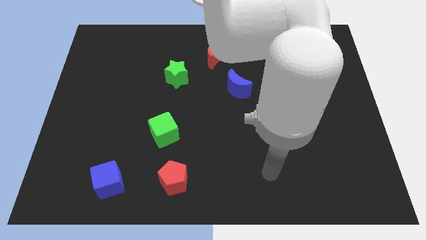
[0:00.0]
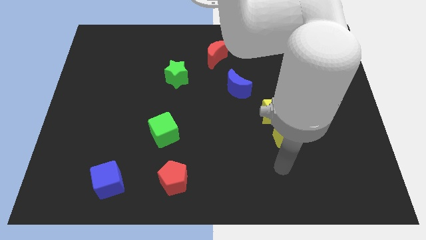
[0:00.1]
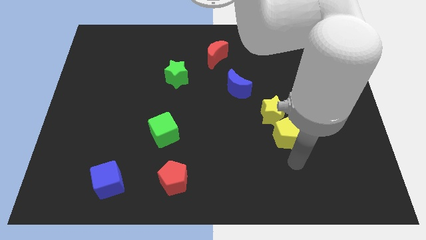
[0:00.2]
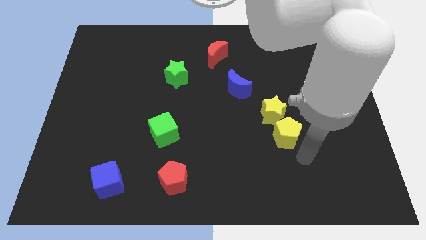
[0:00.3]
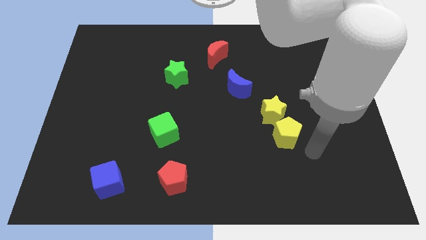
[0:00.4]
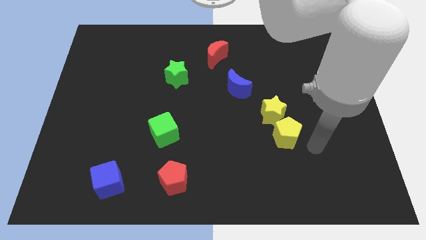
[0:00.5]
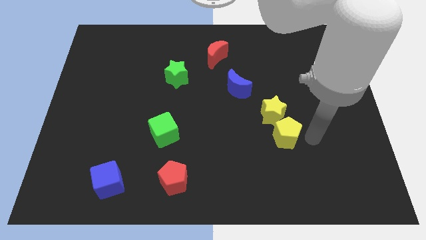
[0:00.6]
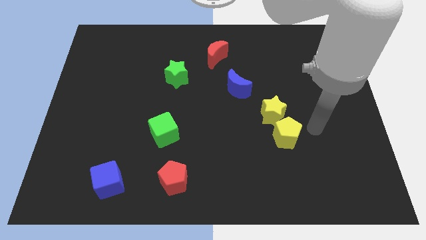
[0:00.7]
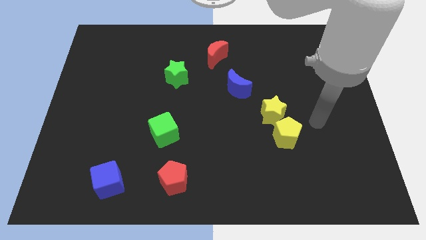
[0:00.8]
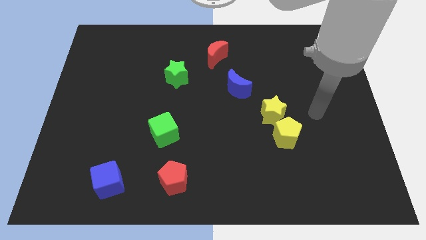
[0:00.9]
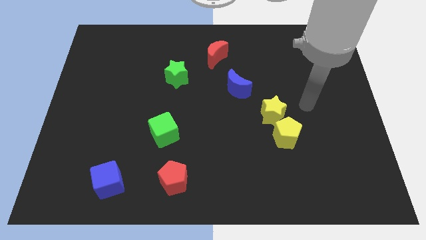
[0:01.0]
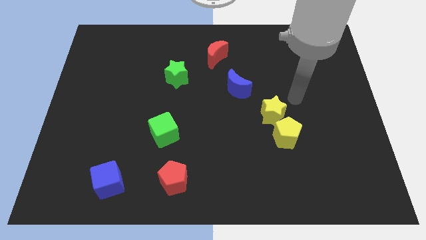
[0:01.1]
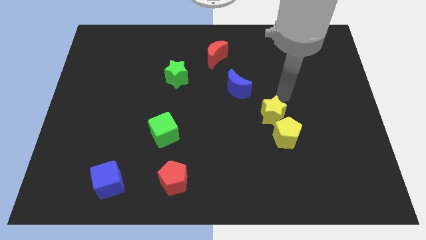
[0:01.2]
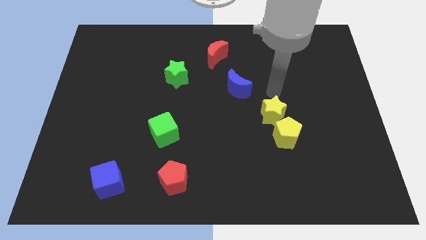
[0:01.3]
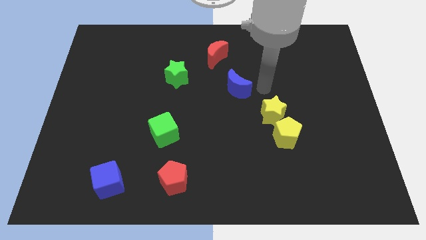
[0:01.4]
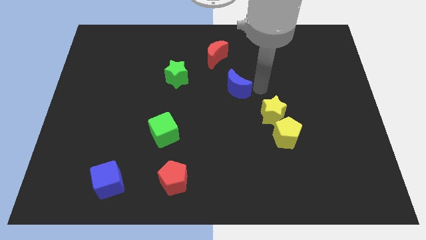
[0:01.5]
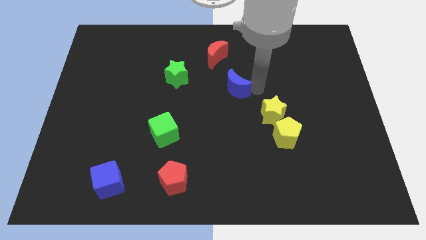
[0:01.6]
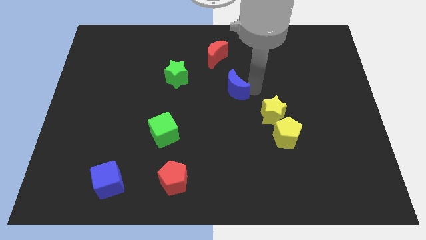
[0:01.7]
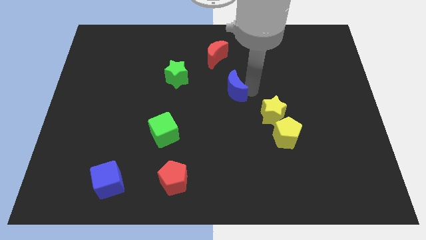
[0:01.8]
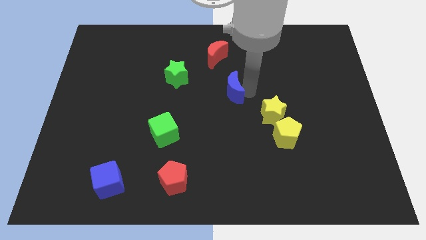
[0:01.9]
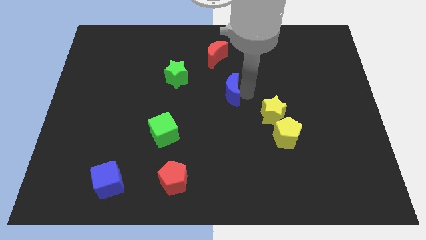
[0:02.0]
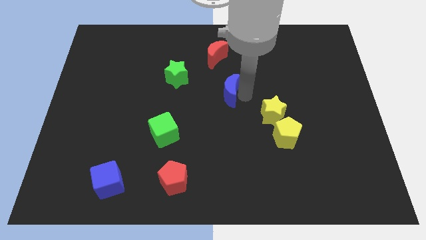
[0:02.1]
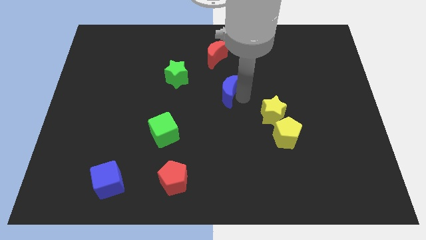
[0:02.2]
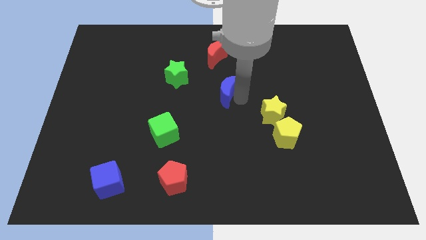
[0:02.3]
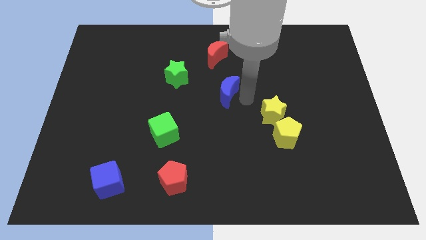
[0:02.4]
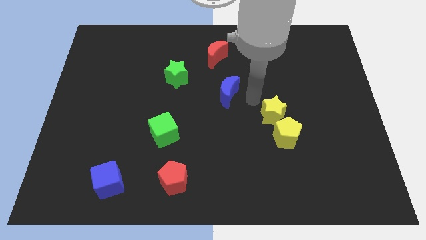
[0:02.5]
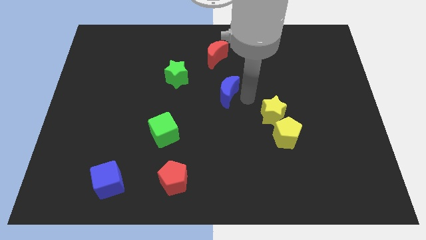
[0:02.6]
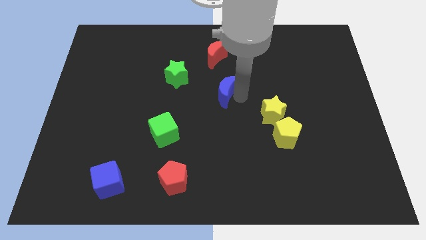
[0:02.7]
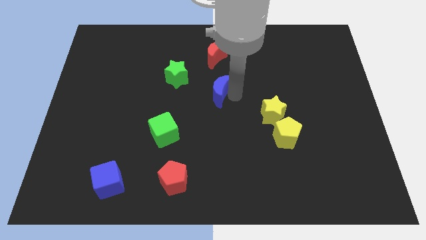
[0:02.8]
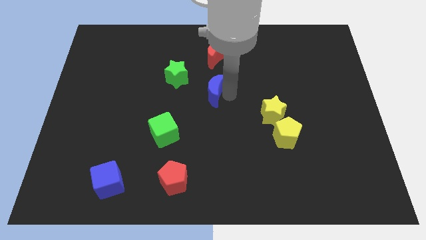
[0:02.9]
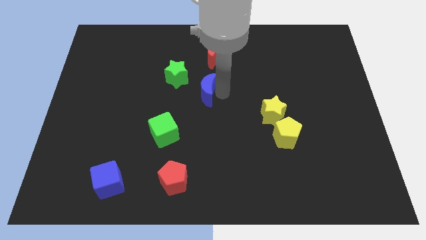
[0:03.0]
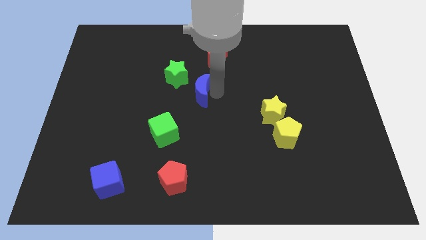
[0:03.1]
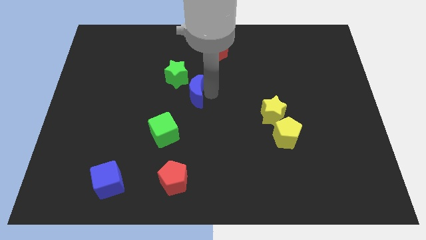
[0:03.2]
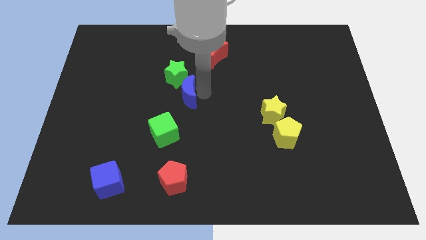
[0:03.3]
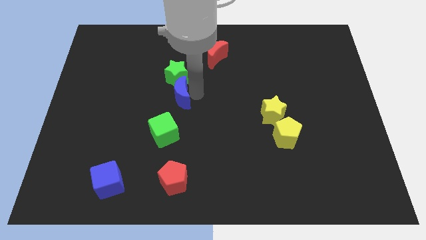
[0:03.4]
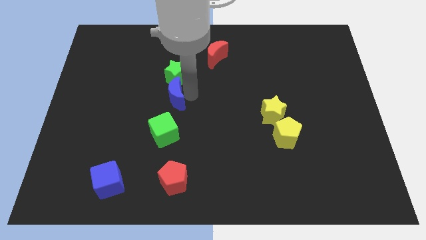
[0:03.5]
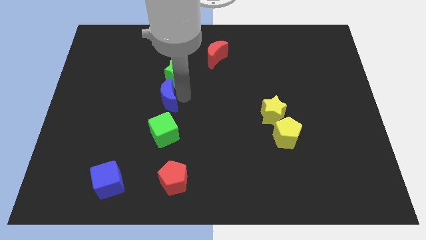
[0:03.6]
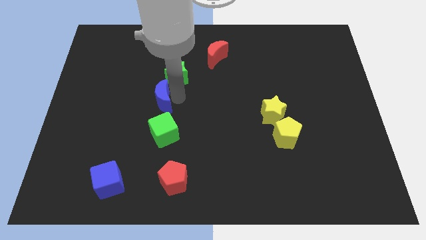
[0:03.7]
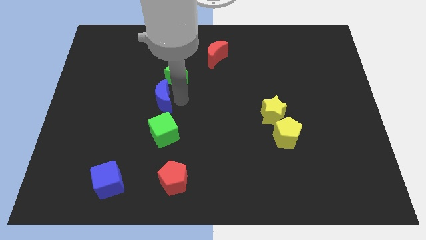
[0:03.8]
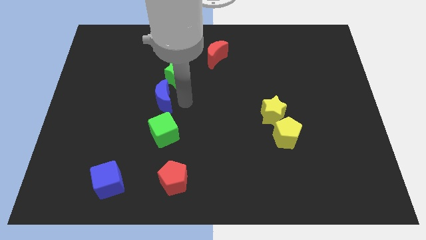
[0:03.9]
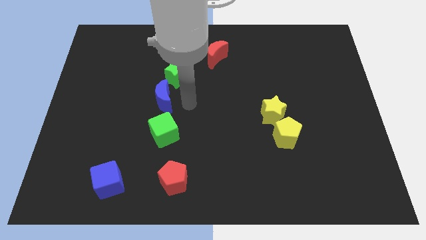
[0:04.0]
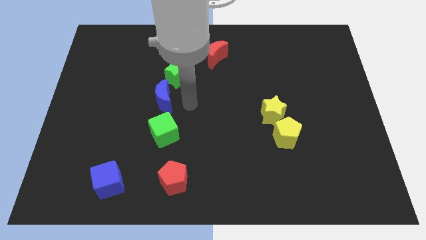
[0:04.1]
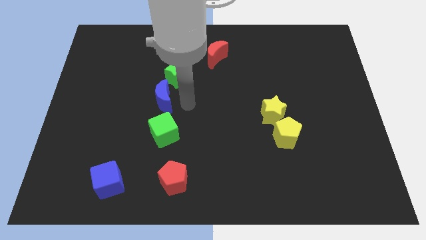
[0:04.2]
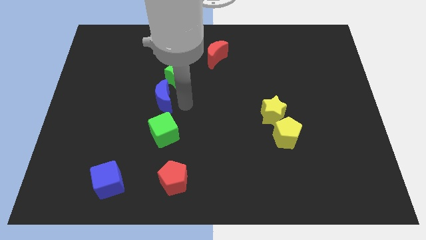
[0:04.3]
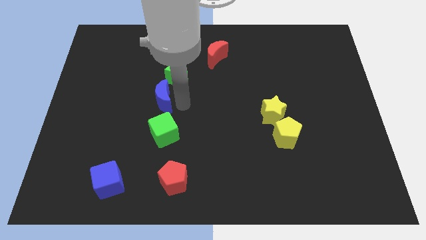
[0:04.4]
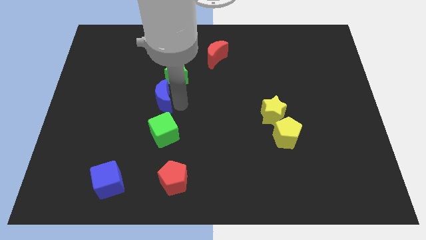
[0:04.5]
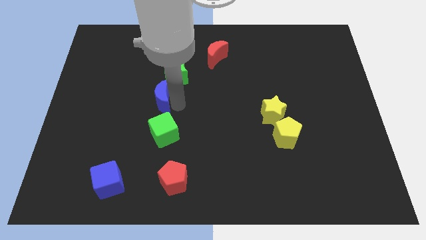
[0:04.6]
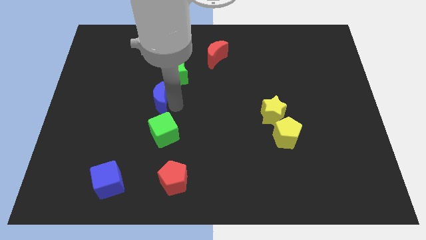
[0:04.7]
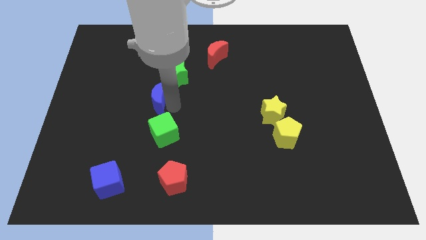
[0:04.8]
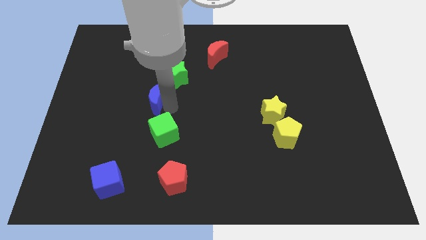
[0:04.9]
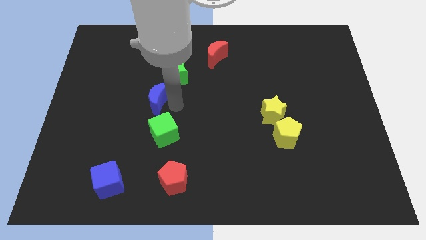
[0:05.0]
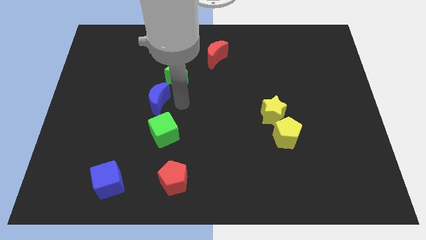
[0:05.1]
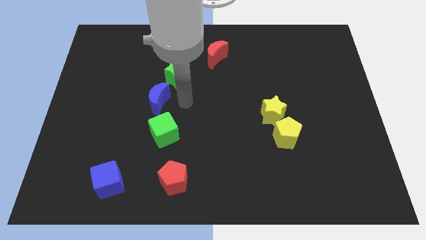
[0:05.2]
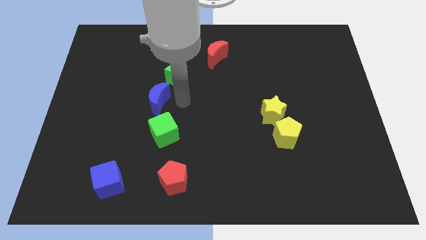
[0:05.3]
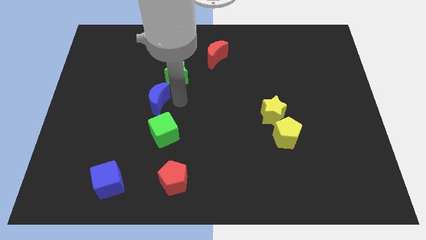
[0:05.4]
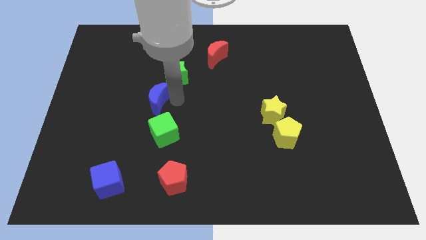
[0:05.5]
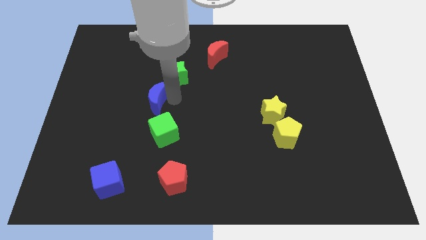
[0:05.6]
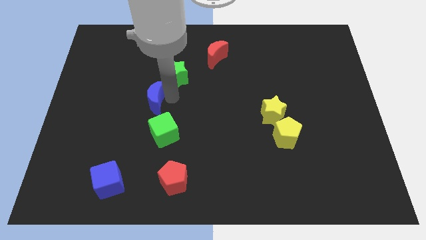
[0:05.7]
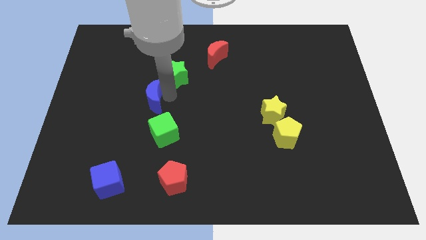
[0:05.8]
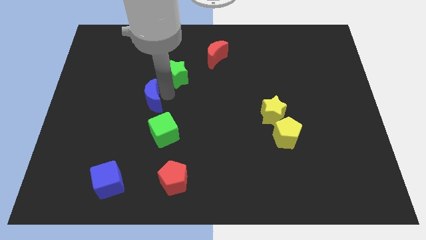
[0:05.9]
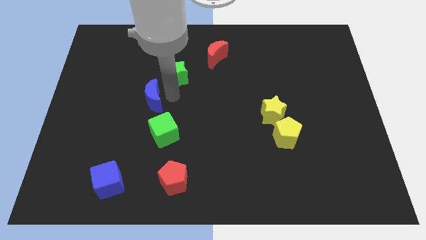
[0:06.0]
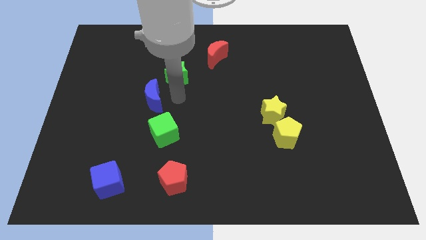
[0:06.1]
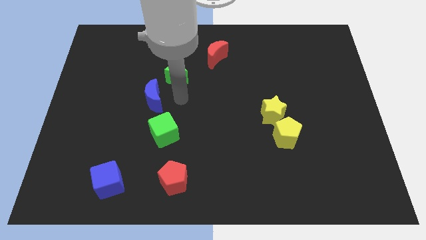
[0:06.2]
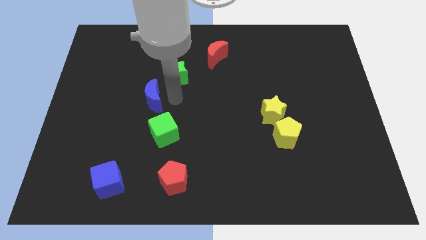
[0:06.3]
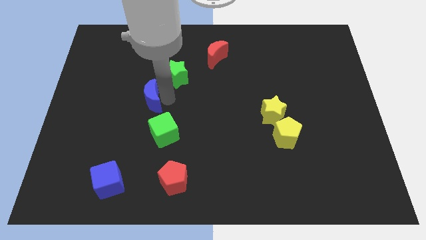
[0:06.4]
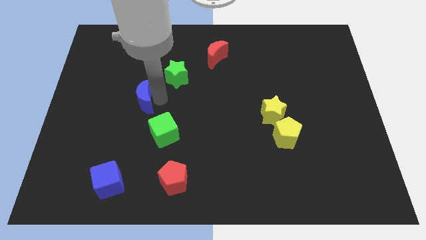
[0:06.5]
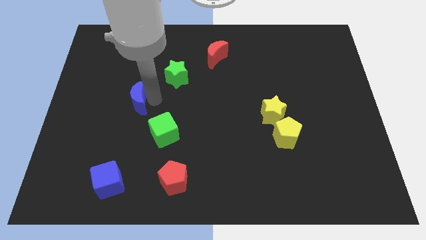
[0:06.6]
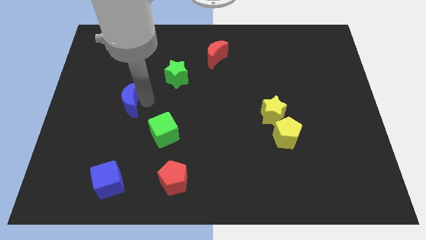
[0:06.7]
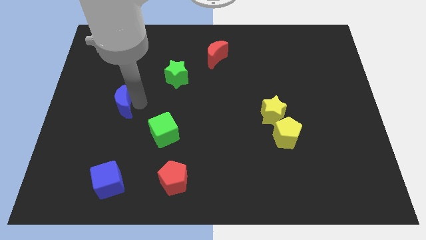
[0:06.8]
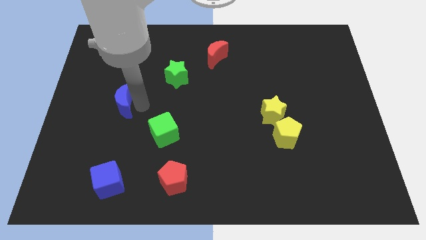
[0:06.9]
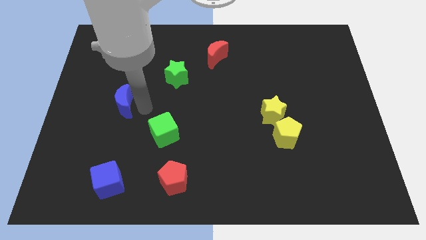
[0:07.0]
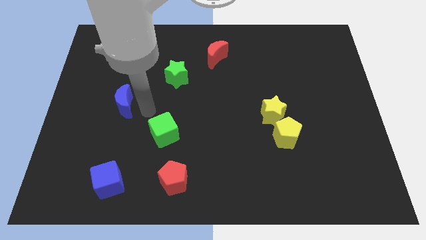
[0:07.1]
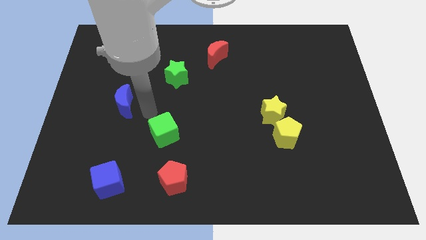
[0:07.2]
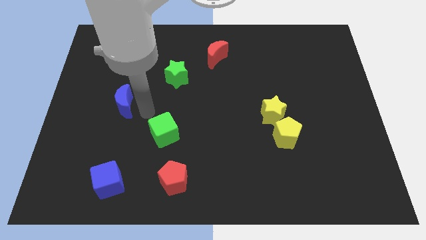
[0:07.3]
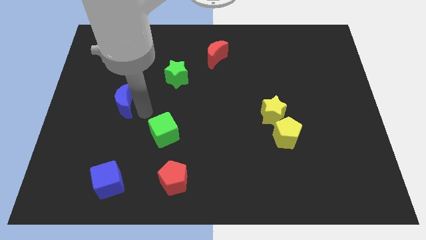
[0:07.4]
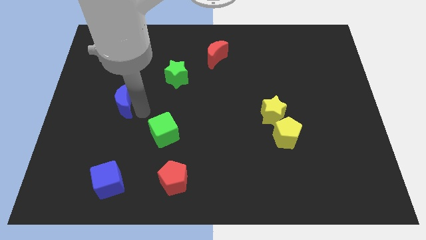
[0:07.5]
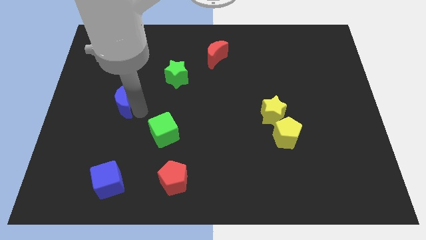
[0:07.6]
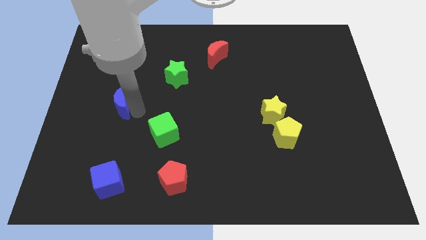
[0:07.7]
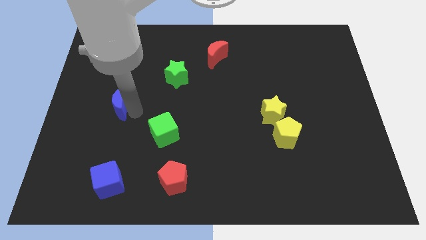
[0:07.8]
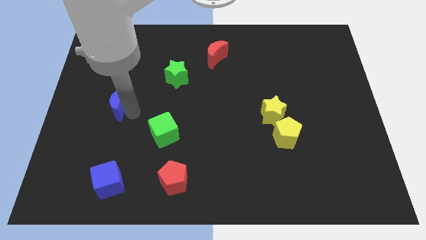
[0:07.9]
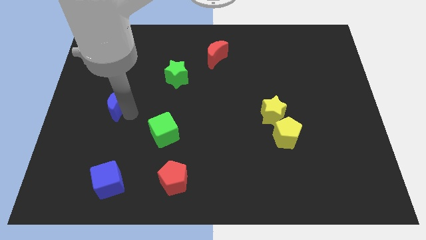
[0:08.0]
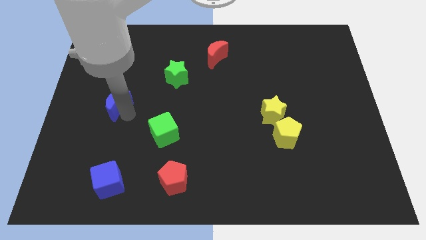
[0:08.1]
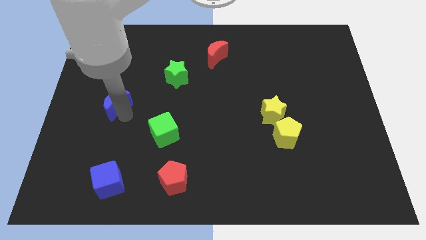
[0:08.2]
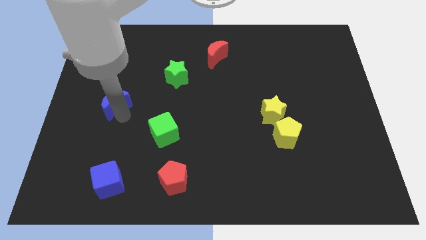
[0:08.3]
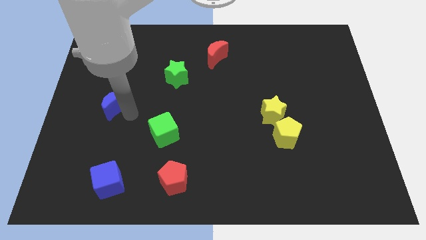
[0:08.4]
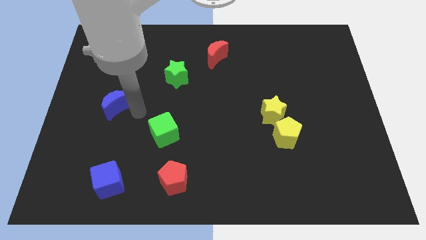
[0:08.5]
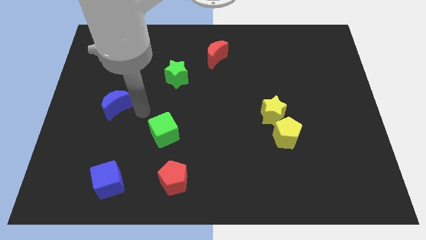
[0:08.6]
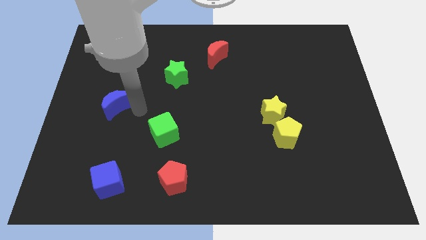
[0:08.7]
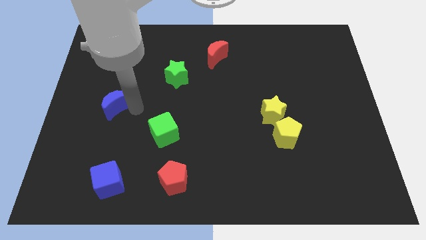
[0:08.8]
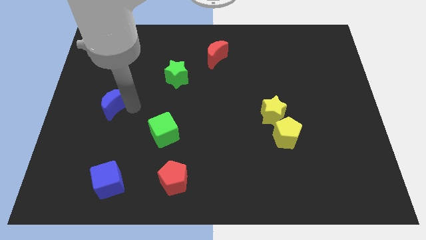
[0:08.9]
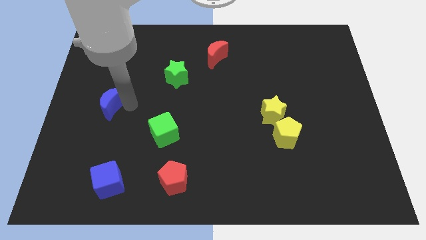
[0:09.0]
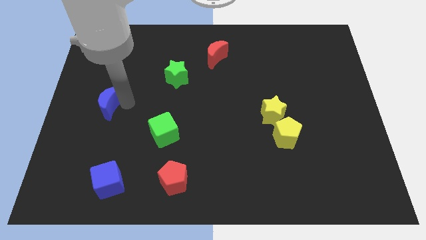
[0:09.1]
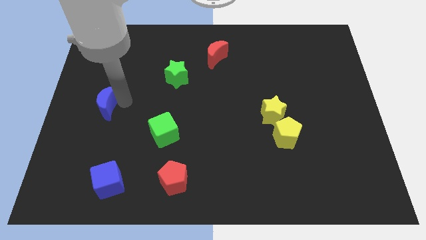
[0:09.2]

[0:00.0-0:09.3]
move the blue moon to the left side
